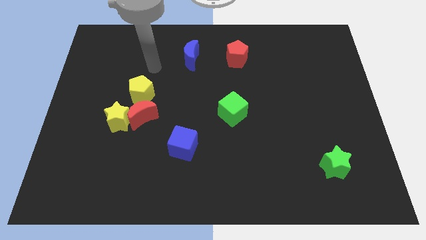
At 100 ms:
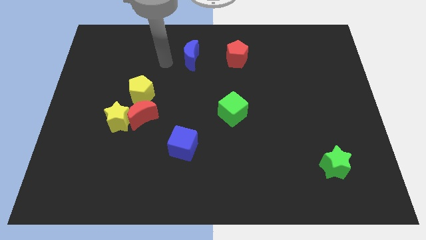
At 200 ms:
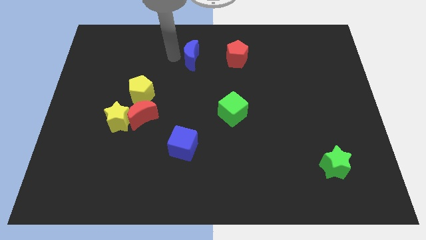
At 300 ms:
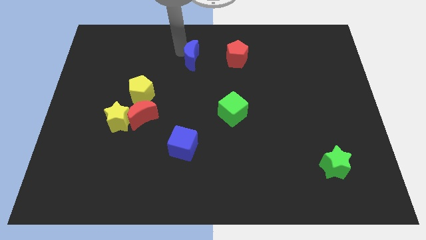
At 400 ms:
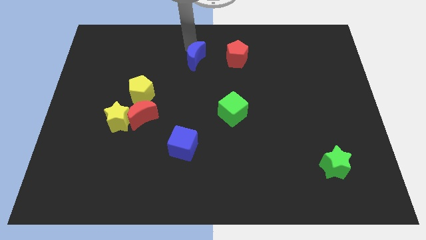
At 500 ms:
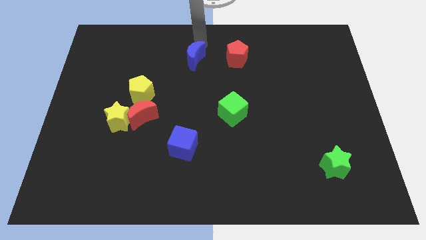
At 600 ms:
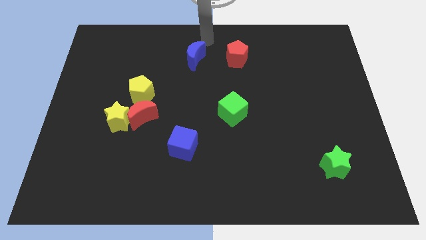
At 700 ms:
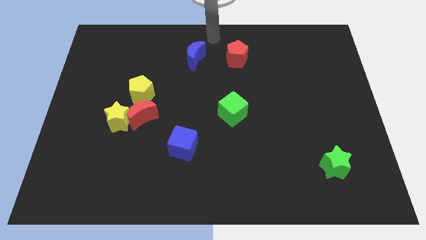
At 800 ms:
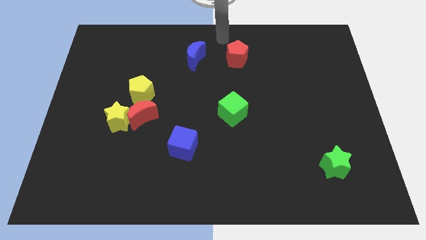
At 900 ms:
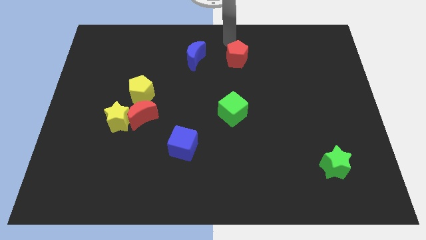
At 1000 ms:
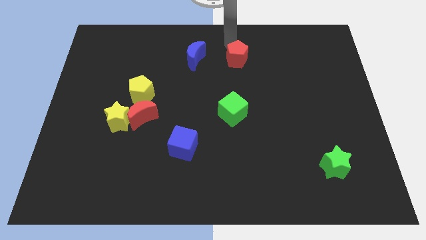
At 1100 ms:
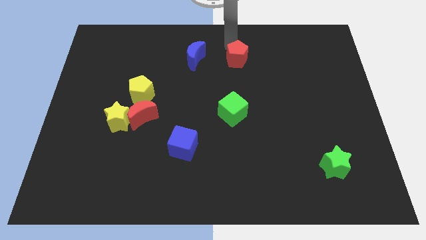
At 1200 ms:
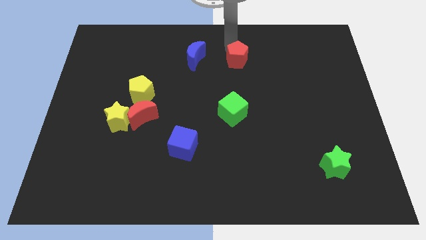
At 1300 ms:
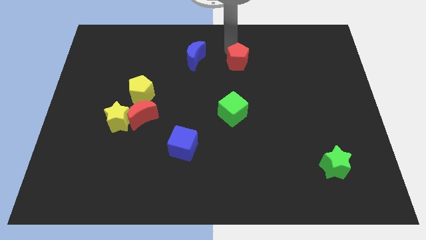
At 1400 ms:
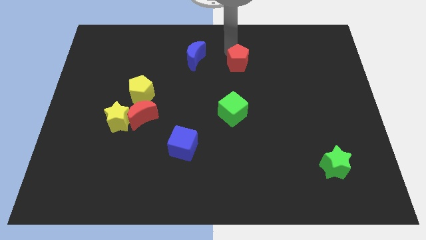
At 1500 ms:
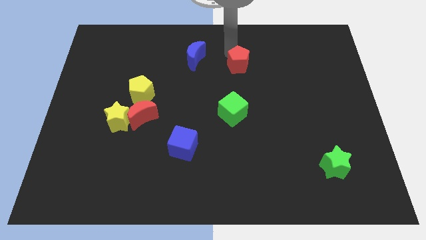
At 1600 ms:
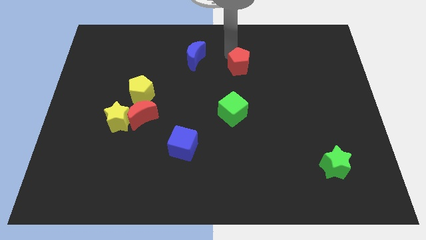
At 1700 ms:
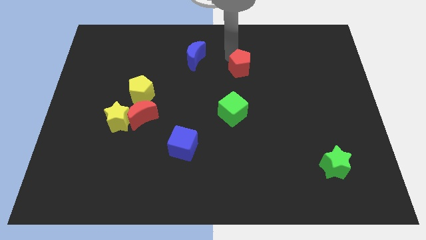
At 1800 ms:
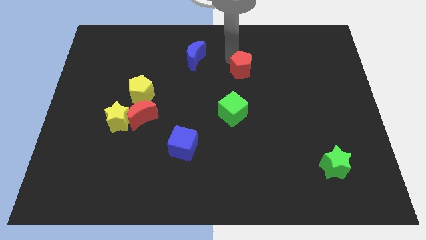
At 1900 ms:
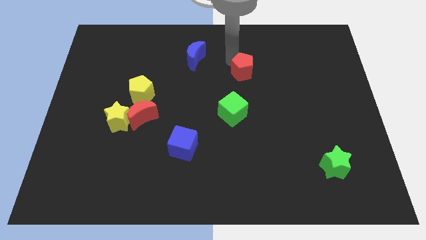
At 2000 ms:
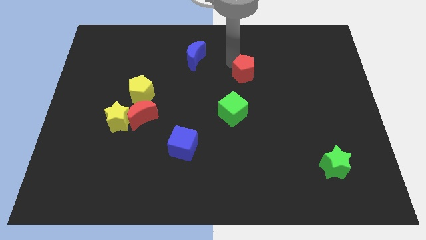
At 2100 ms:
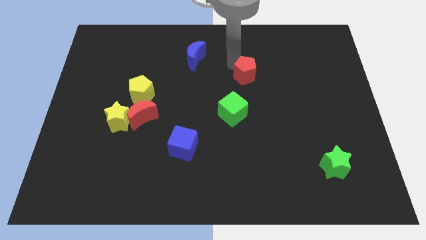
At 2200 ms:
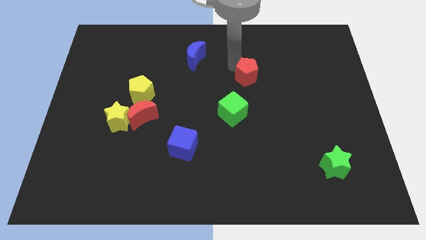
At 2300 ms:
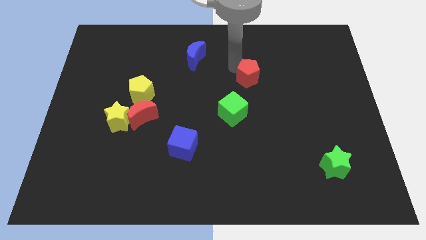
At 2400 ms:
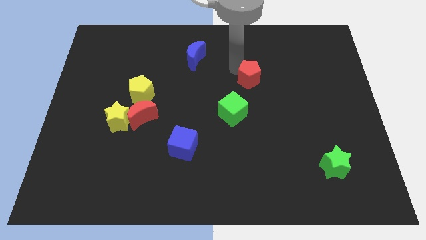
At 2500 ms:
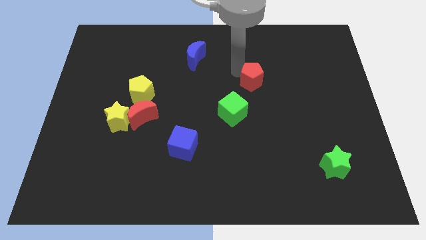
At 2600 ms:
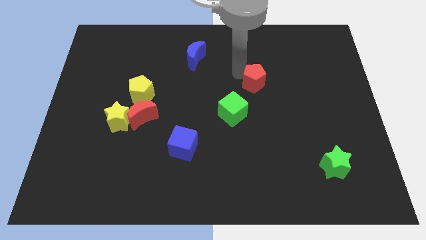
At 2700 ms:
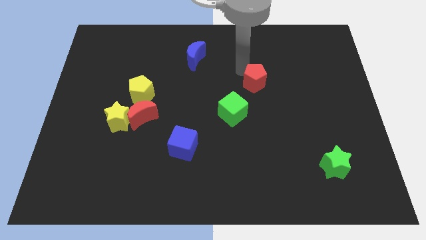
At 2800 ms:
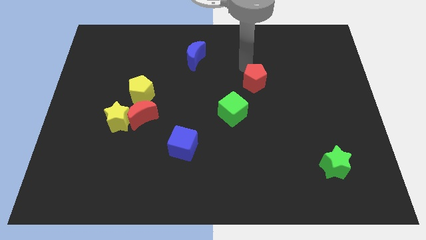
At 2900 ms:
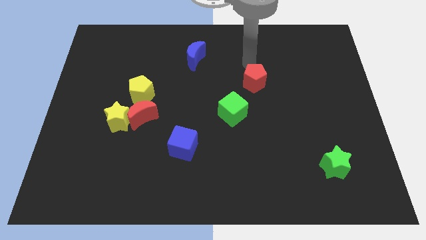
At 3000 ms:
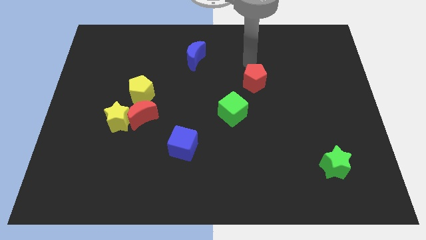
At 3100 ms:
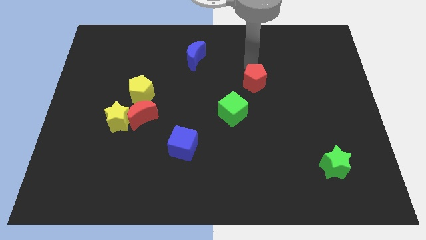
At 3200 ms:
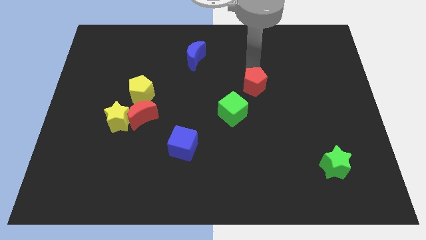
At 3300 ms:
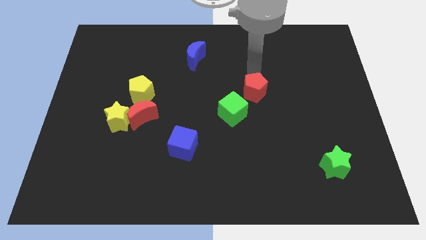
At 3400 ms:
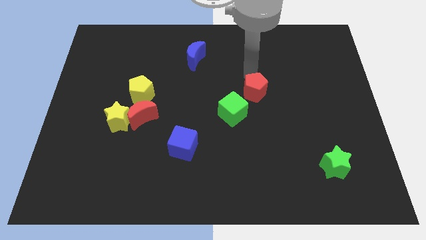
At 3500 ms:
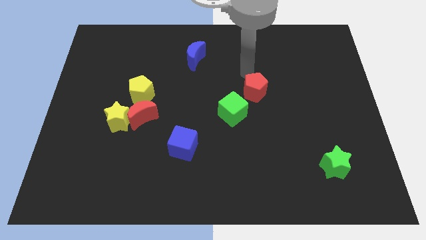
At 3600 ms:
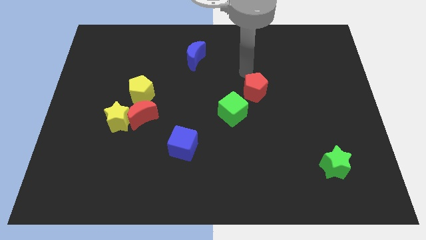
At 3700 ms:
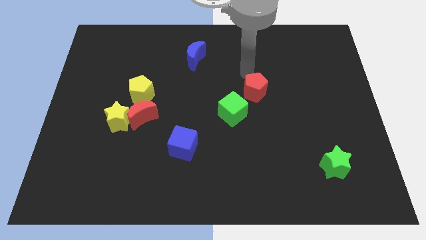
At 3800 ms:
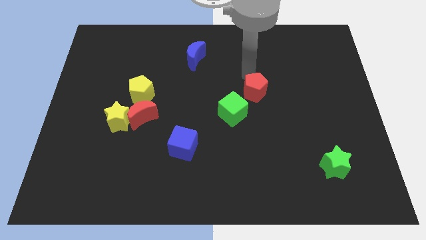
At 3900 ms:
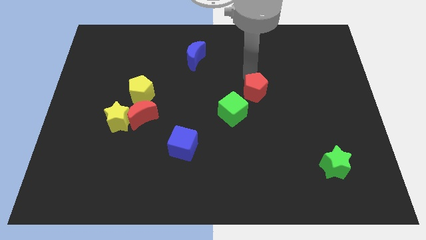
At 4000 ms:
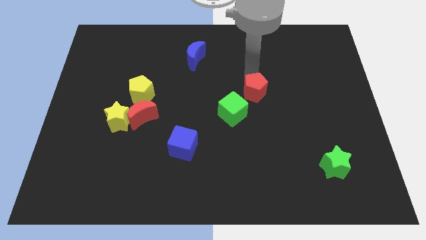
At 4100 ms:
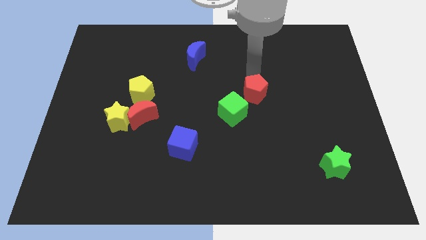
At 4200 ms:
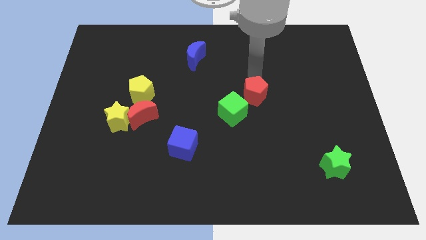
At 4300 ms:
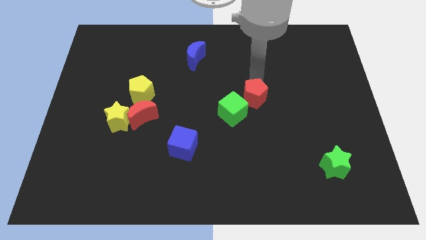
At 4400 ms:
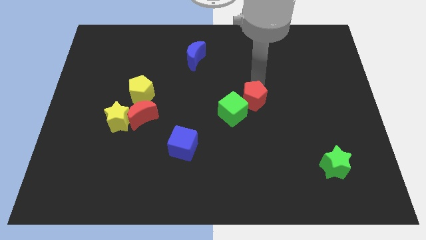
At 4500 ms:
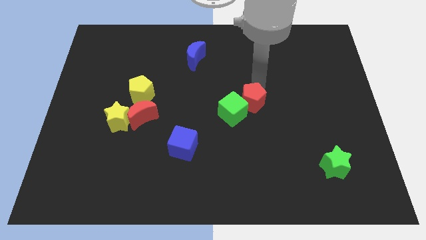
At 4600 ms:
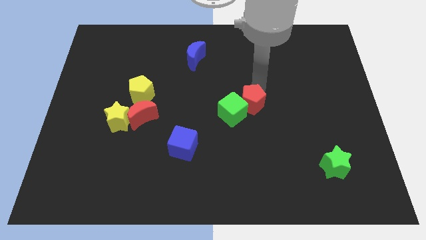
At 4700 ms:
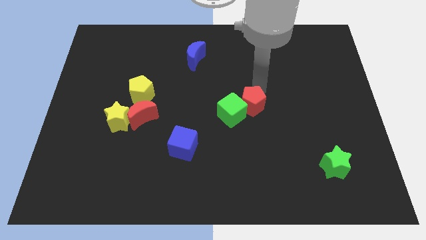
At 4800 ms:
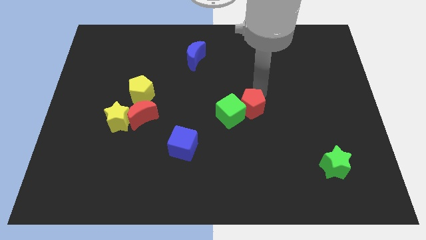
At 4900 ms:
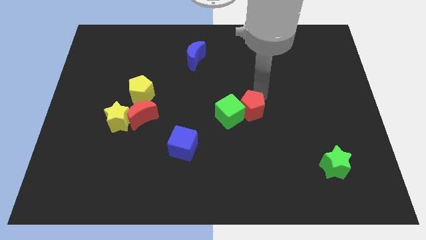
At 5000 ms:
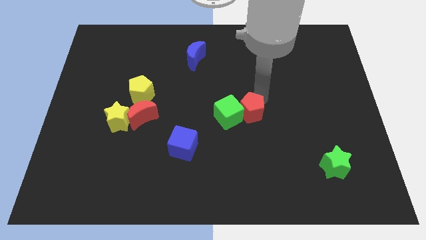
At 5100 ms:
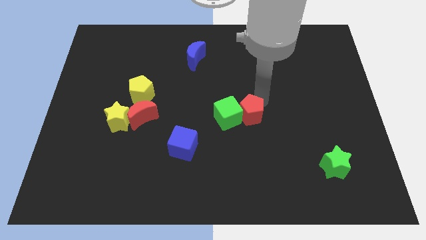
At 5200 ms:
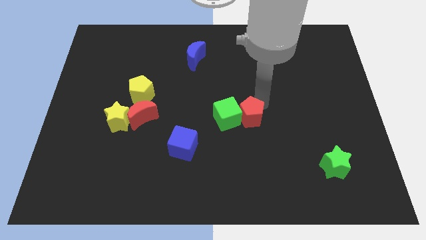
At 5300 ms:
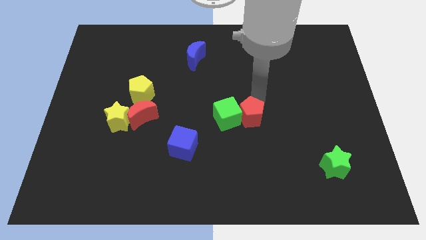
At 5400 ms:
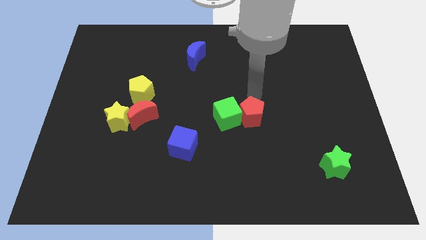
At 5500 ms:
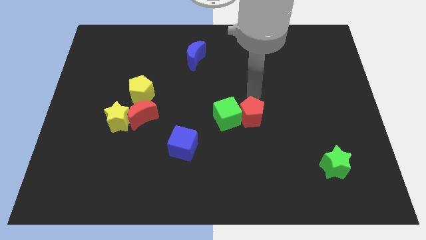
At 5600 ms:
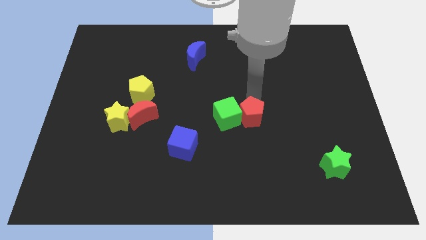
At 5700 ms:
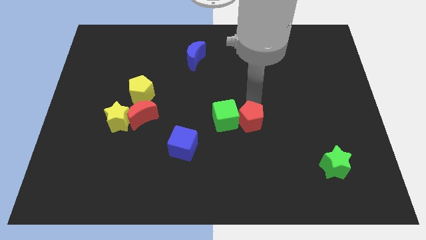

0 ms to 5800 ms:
slide the red pentagon downwards

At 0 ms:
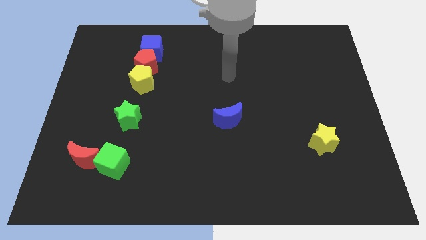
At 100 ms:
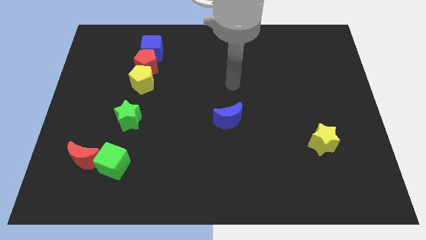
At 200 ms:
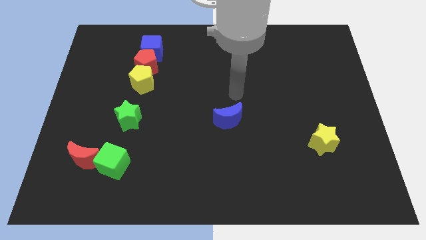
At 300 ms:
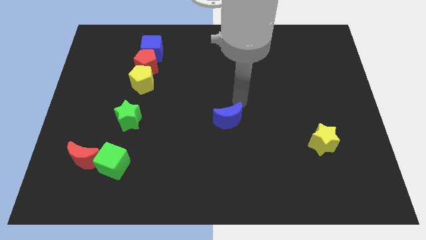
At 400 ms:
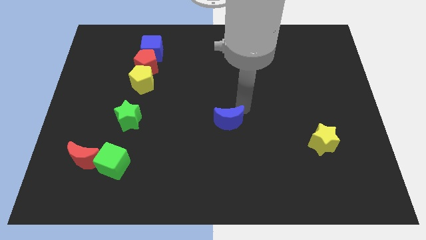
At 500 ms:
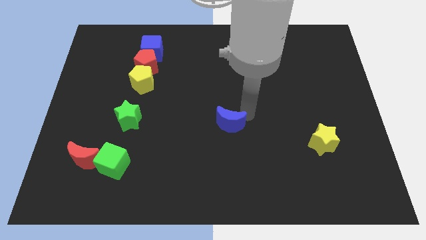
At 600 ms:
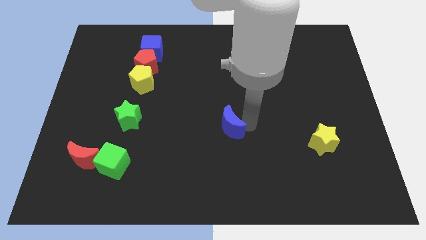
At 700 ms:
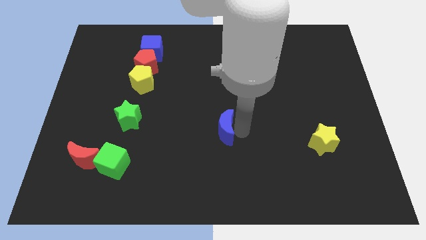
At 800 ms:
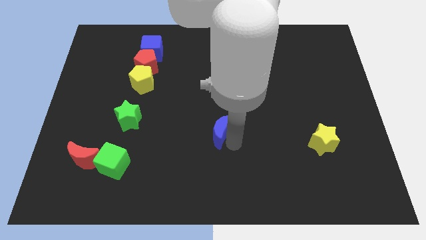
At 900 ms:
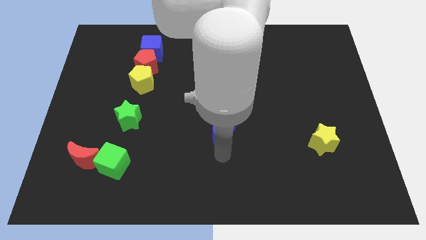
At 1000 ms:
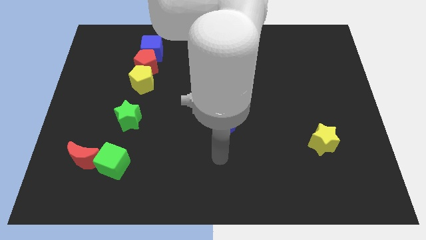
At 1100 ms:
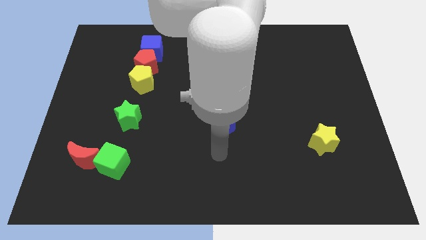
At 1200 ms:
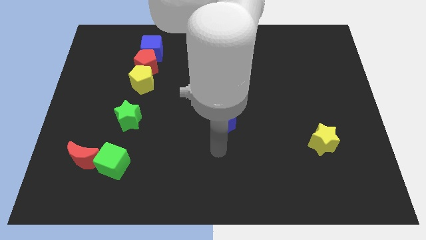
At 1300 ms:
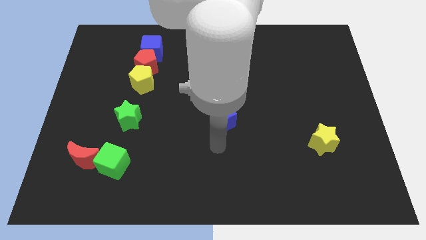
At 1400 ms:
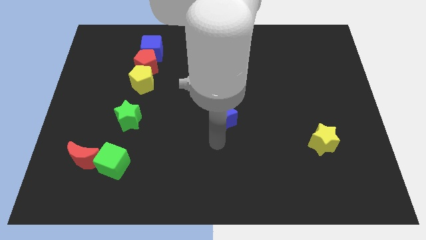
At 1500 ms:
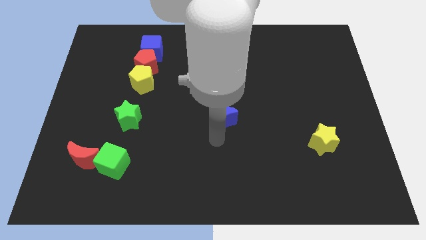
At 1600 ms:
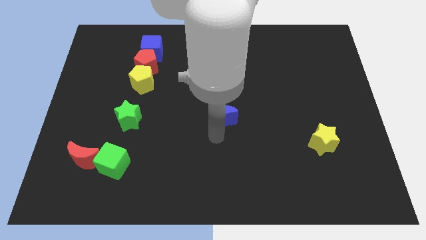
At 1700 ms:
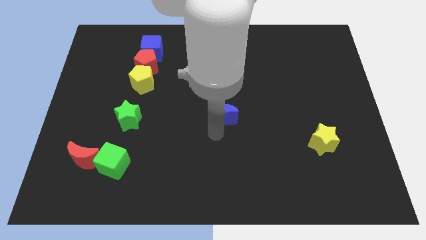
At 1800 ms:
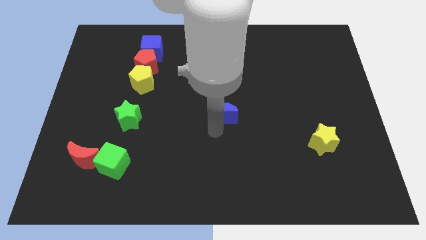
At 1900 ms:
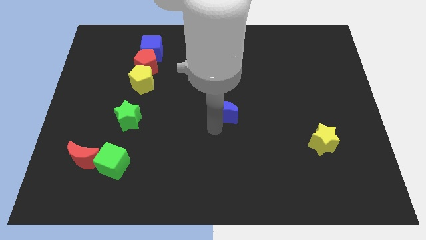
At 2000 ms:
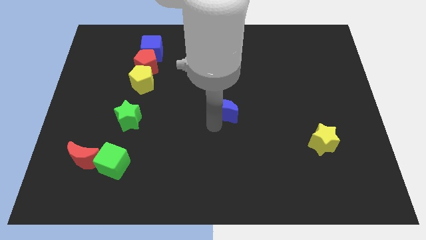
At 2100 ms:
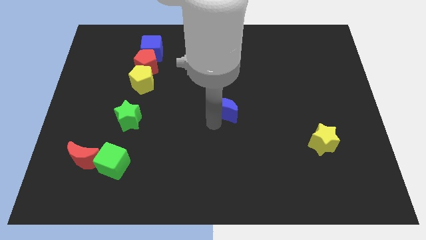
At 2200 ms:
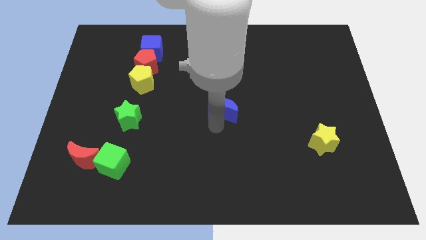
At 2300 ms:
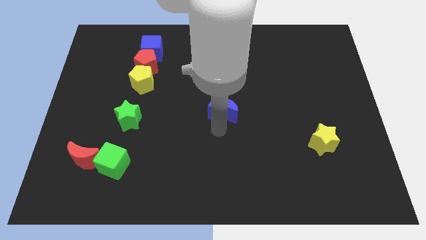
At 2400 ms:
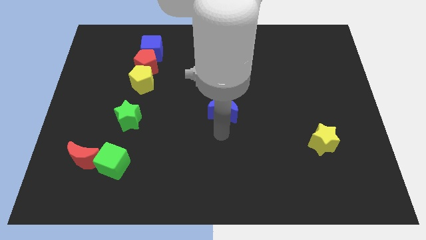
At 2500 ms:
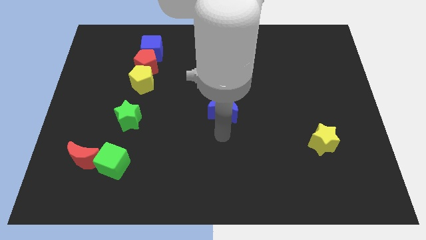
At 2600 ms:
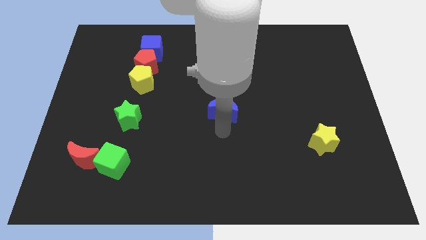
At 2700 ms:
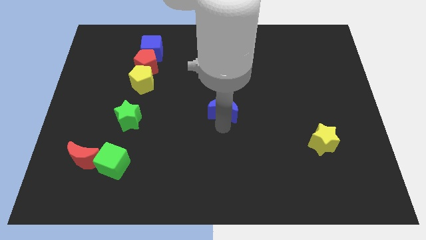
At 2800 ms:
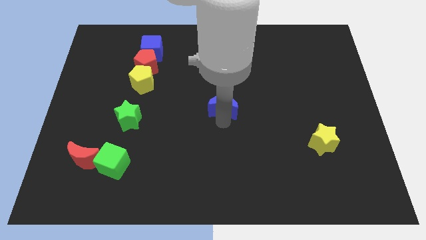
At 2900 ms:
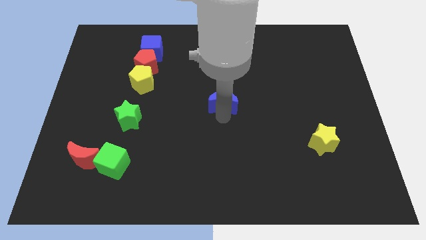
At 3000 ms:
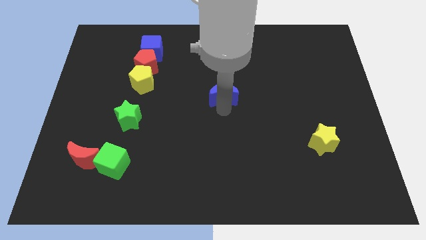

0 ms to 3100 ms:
slide the blue moon upwards somewhat
